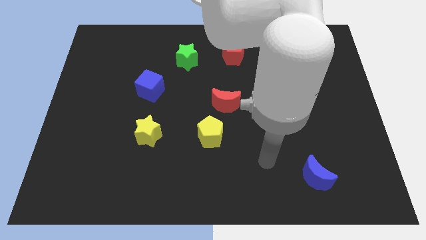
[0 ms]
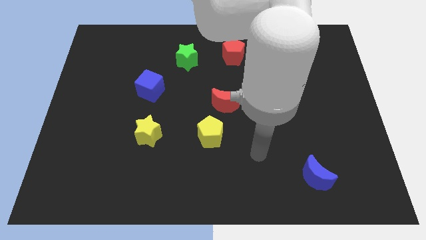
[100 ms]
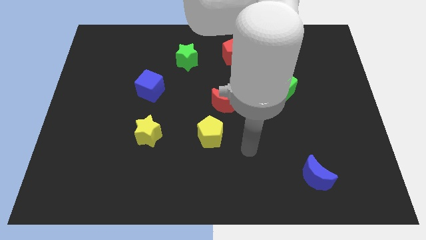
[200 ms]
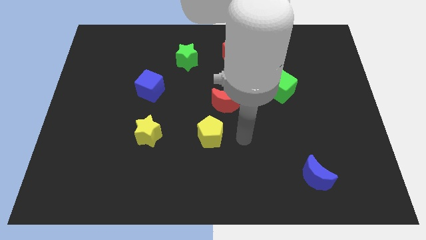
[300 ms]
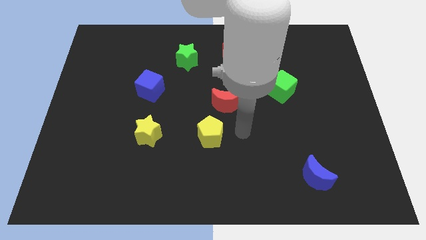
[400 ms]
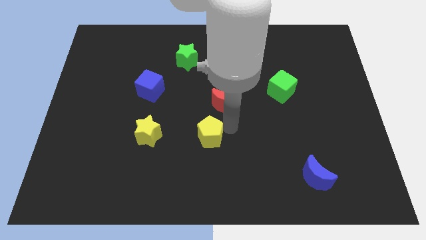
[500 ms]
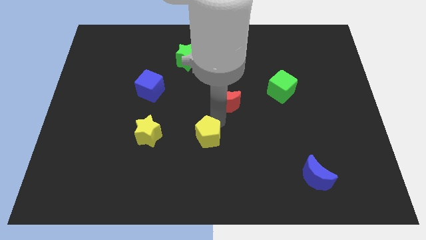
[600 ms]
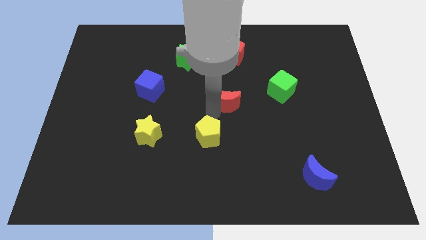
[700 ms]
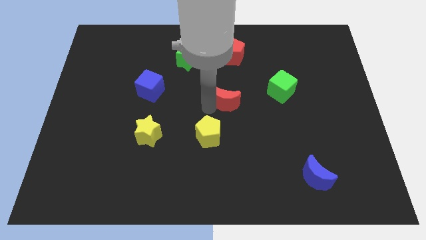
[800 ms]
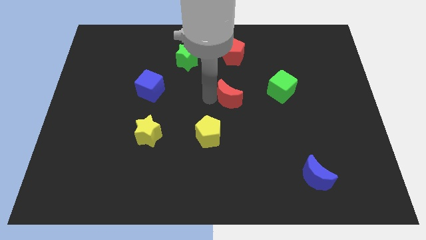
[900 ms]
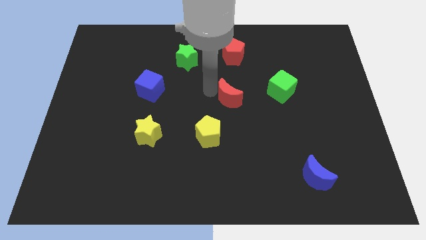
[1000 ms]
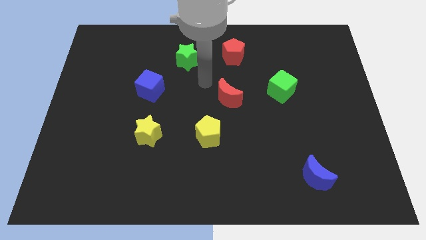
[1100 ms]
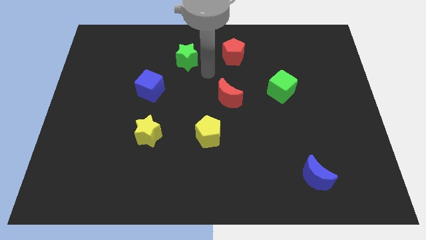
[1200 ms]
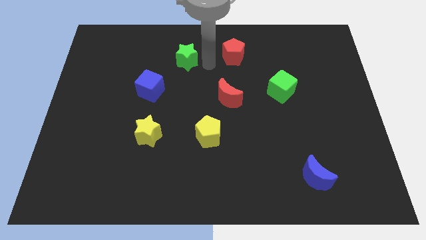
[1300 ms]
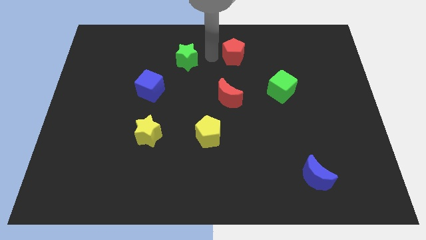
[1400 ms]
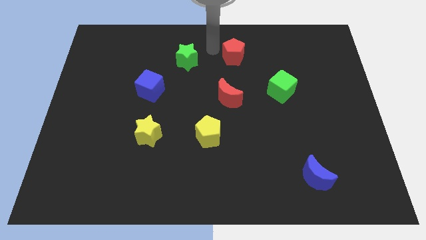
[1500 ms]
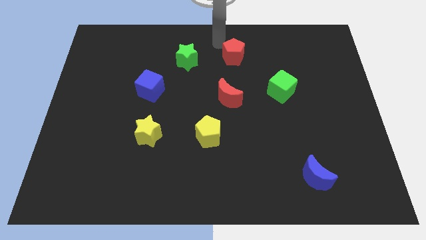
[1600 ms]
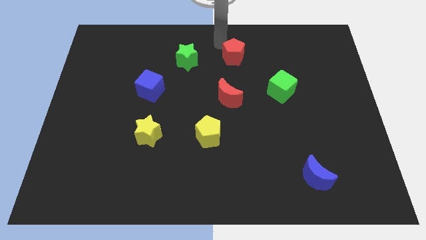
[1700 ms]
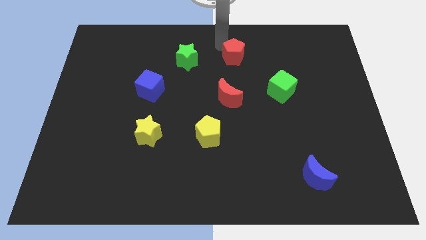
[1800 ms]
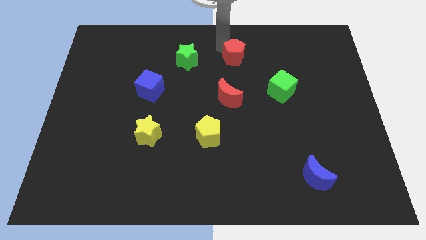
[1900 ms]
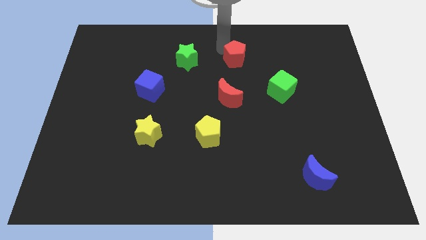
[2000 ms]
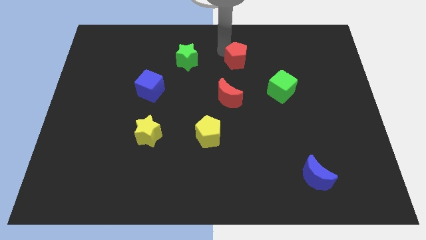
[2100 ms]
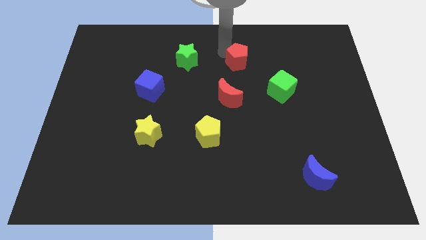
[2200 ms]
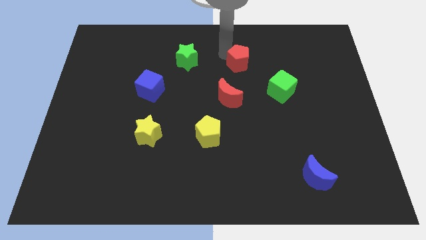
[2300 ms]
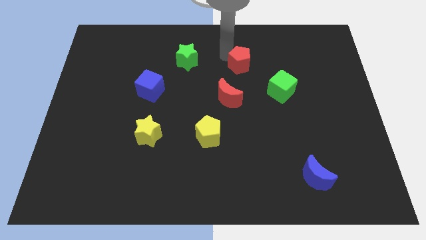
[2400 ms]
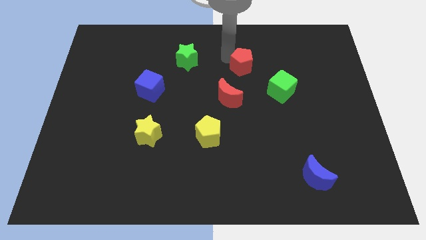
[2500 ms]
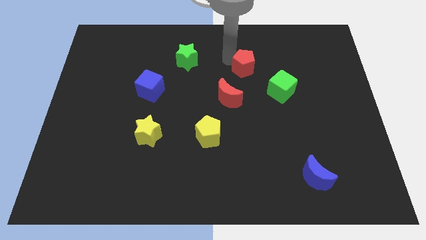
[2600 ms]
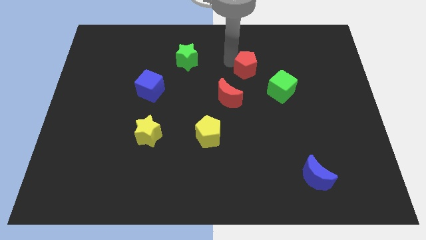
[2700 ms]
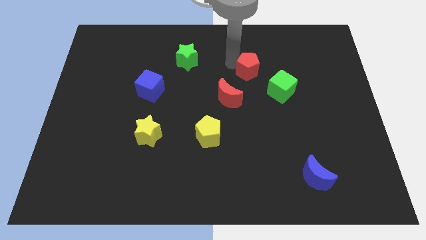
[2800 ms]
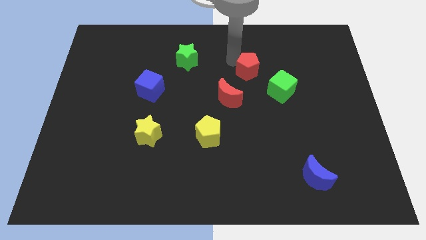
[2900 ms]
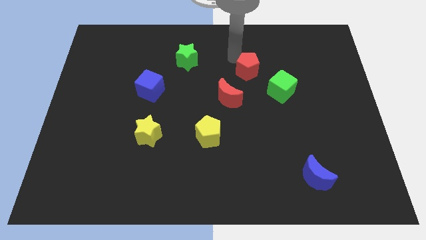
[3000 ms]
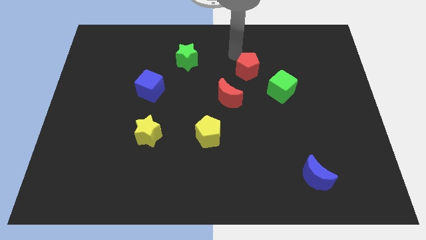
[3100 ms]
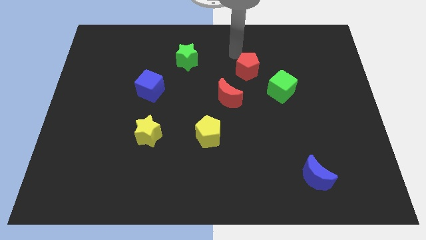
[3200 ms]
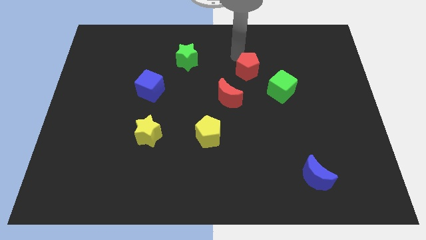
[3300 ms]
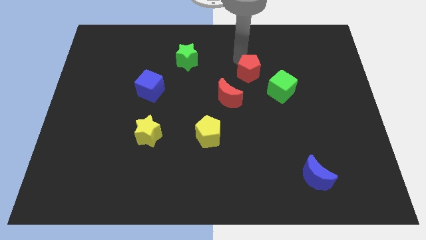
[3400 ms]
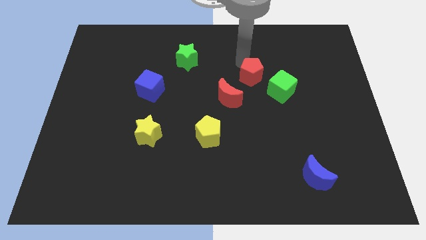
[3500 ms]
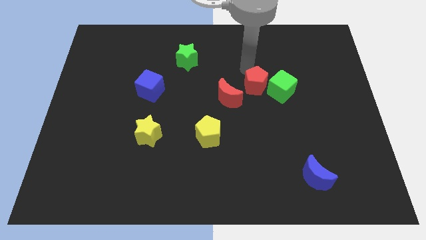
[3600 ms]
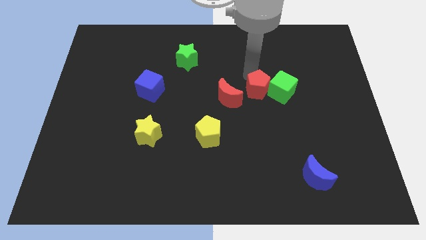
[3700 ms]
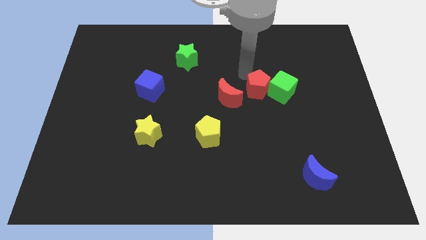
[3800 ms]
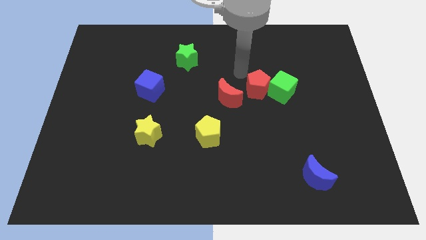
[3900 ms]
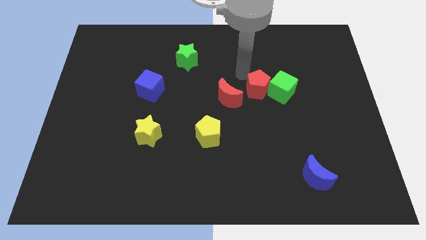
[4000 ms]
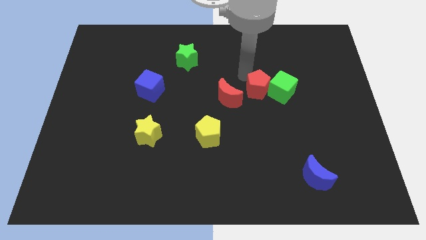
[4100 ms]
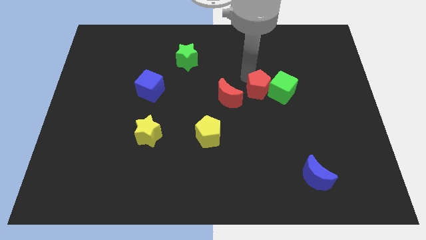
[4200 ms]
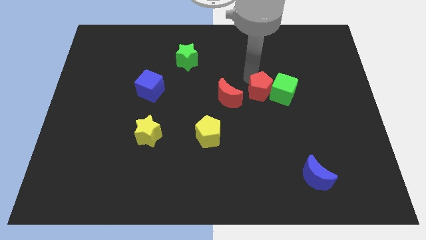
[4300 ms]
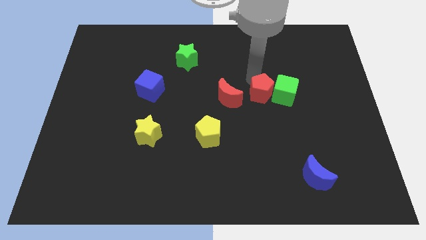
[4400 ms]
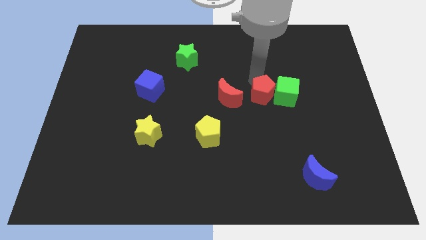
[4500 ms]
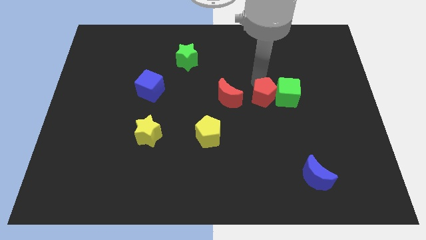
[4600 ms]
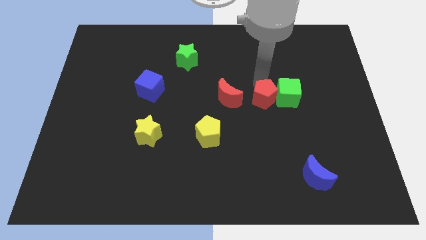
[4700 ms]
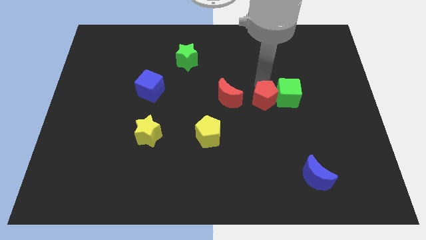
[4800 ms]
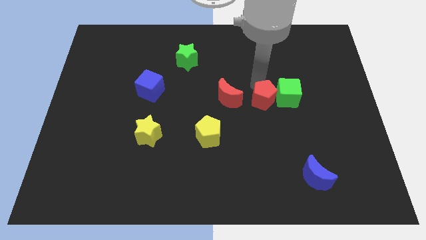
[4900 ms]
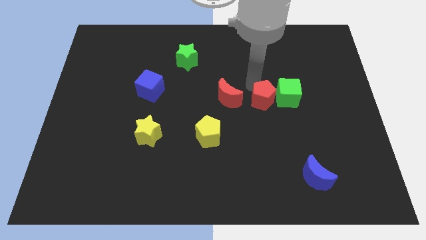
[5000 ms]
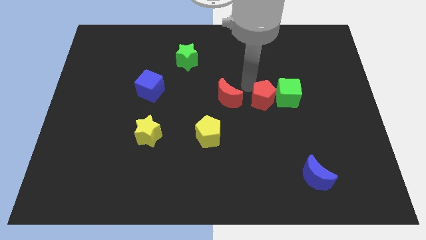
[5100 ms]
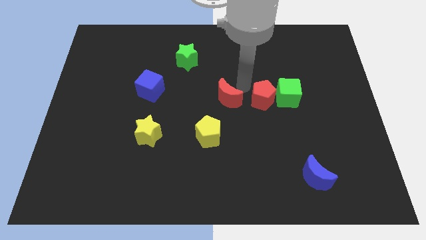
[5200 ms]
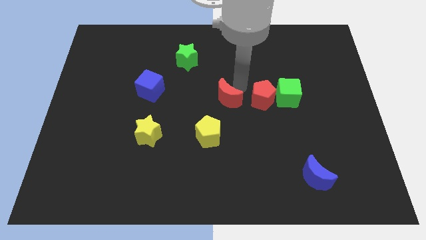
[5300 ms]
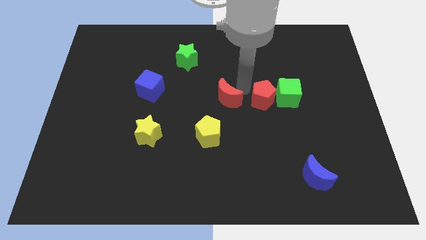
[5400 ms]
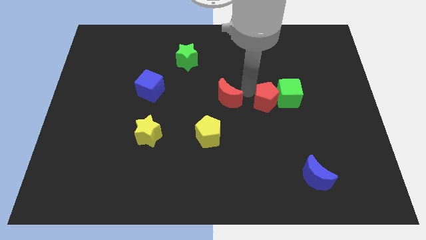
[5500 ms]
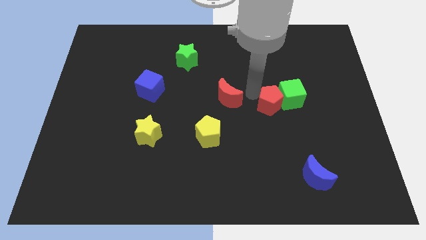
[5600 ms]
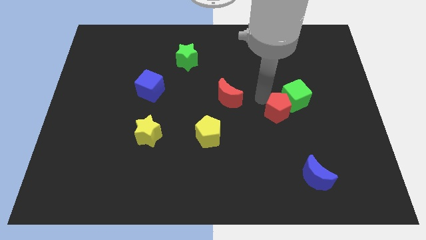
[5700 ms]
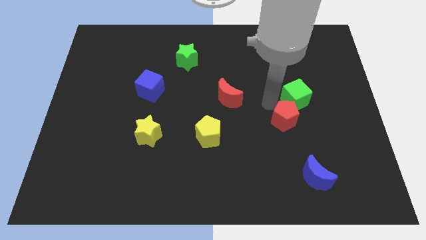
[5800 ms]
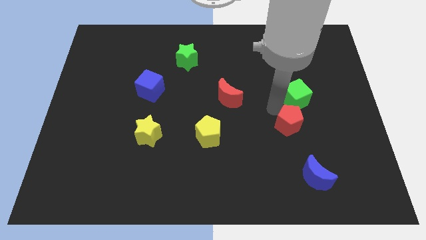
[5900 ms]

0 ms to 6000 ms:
move the red pentagon to the top of the blue moon

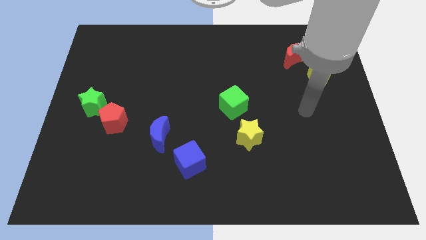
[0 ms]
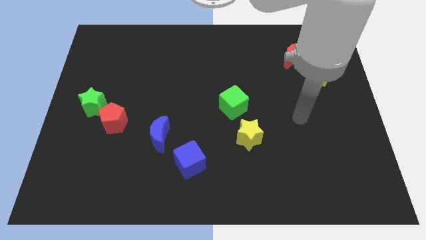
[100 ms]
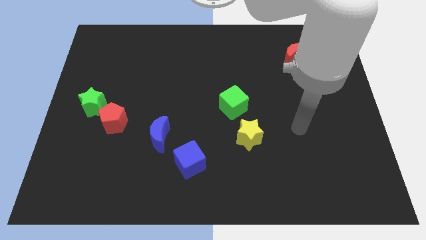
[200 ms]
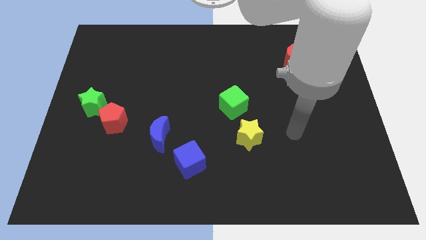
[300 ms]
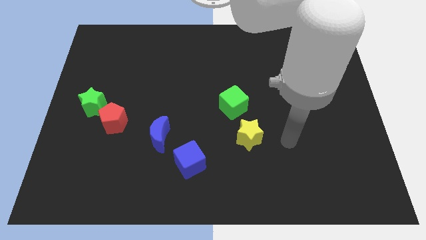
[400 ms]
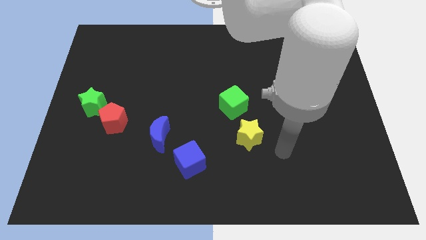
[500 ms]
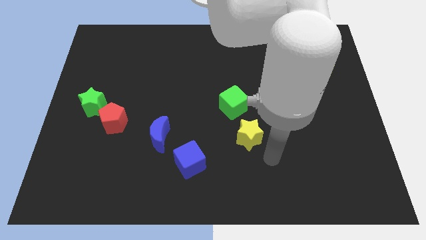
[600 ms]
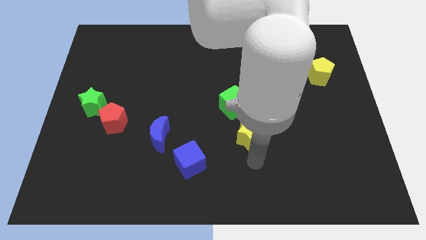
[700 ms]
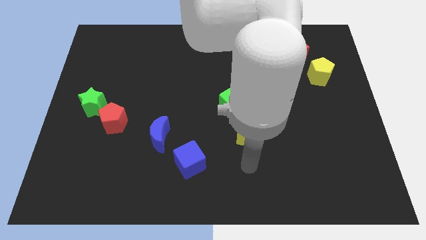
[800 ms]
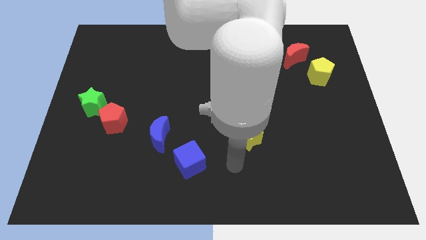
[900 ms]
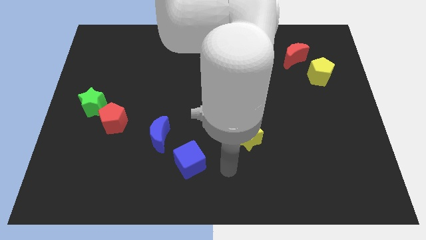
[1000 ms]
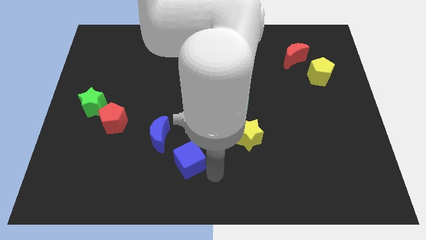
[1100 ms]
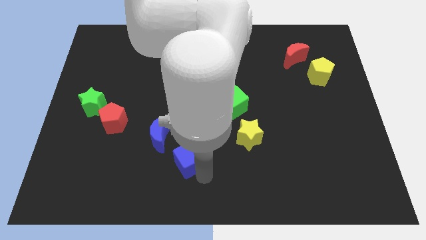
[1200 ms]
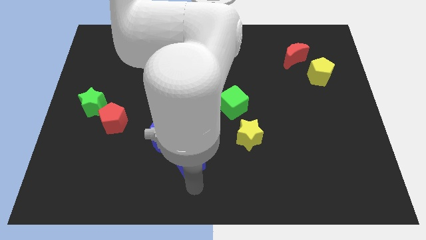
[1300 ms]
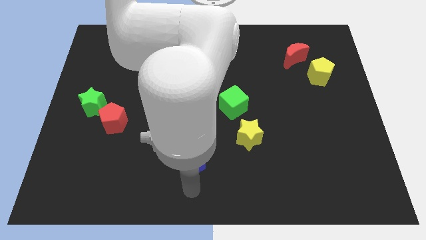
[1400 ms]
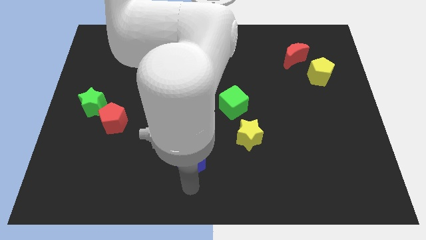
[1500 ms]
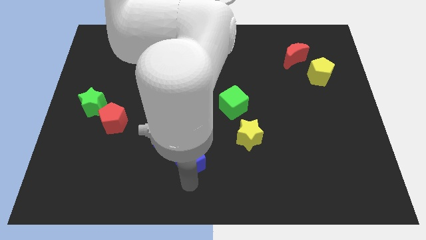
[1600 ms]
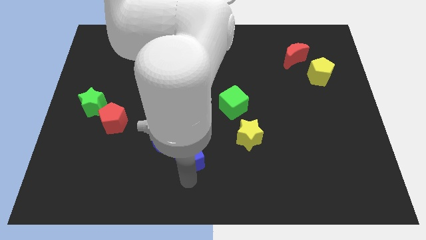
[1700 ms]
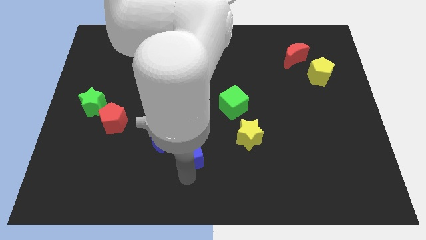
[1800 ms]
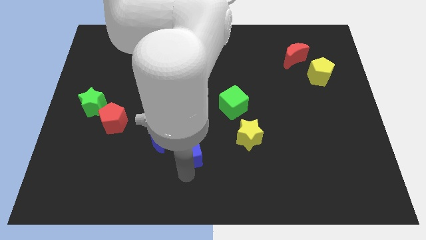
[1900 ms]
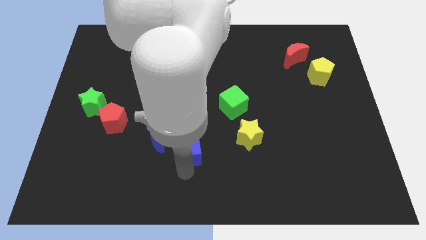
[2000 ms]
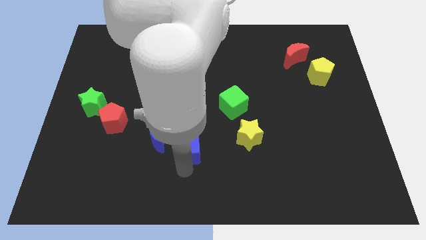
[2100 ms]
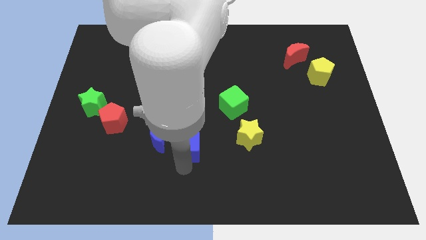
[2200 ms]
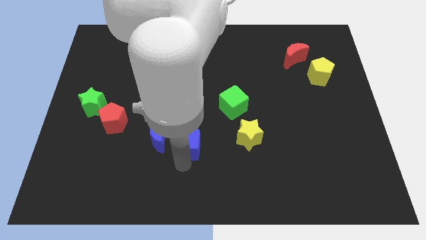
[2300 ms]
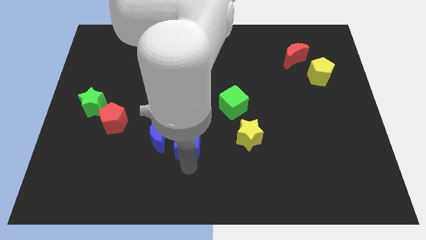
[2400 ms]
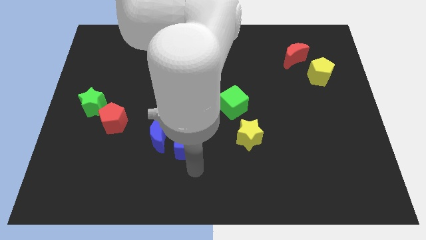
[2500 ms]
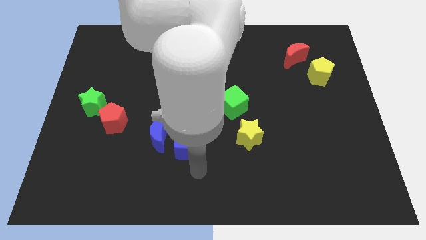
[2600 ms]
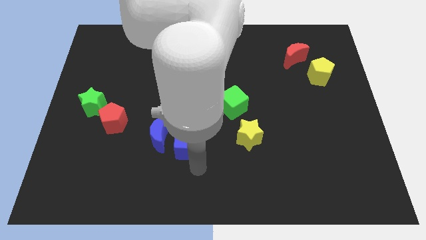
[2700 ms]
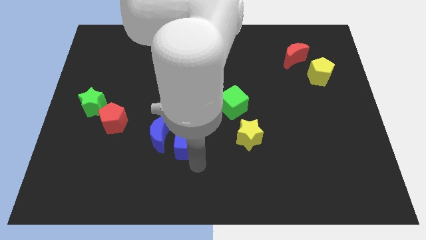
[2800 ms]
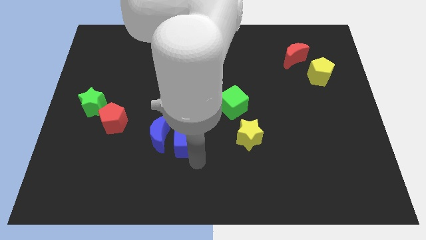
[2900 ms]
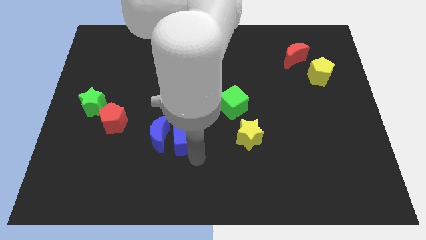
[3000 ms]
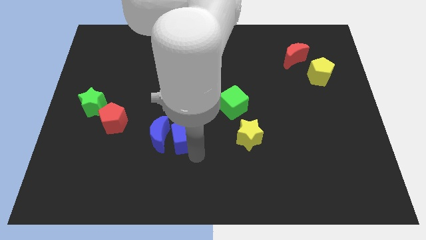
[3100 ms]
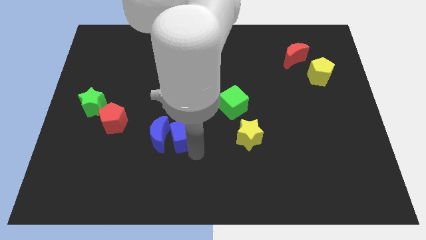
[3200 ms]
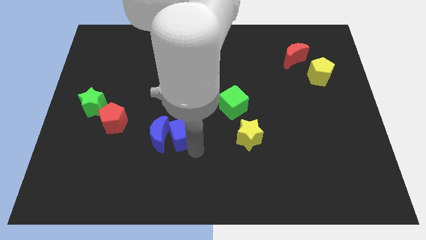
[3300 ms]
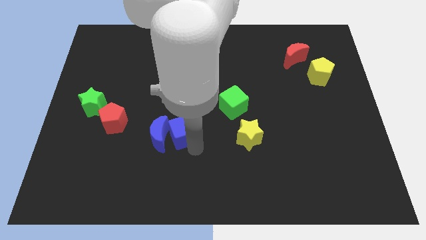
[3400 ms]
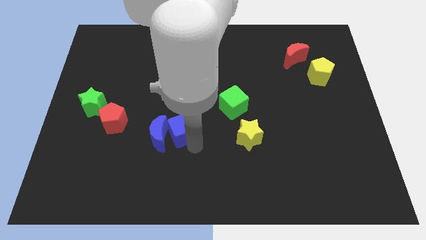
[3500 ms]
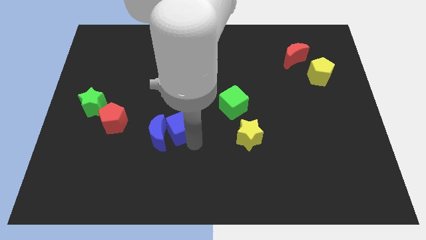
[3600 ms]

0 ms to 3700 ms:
push the blue cube just right of the red pentagon
